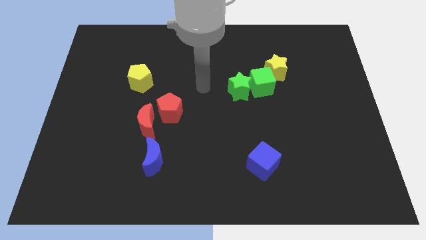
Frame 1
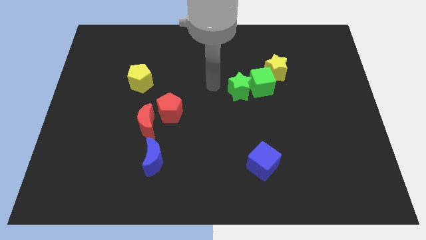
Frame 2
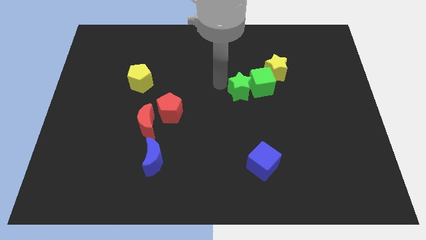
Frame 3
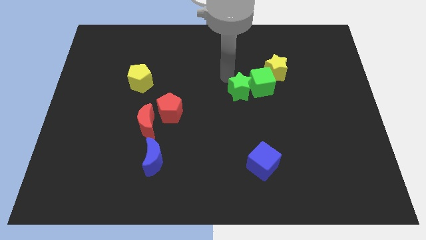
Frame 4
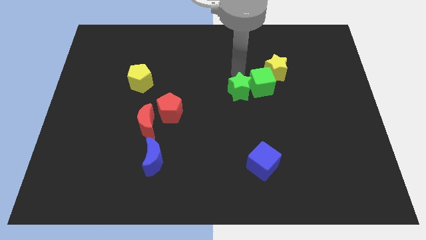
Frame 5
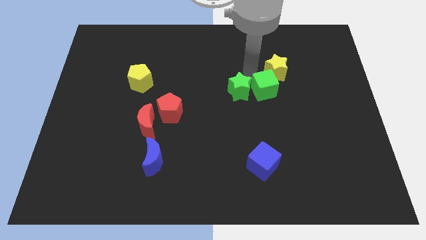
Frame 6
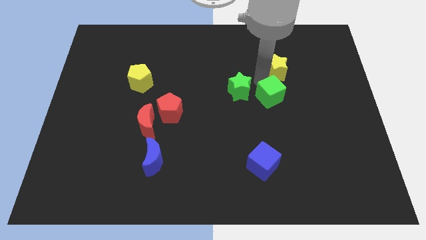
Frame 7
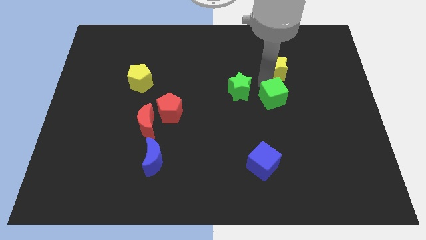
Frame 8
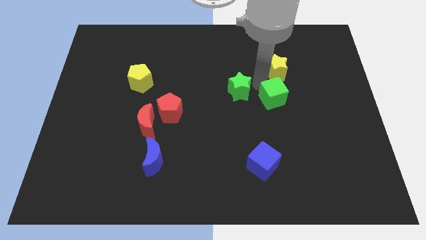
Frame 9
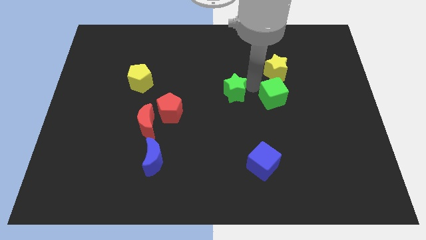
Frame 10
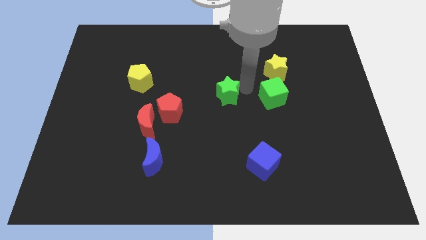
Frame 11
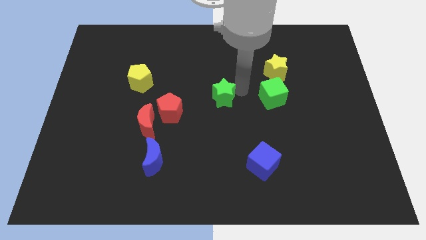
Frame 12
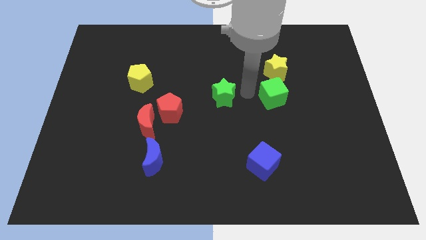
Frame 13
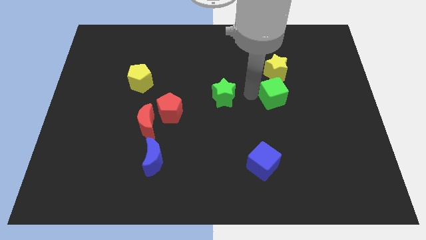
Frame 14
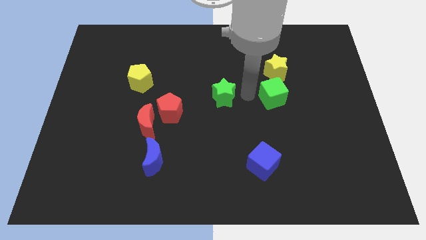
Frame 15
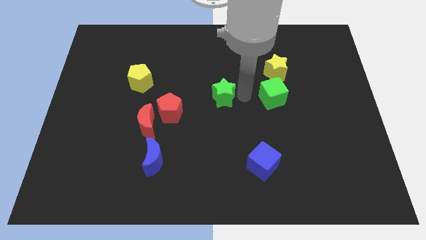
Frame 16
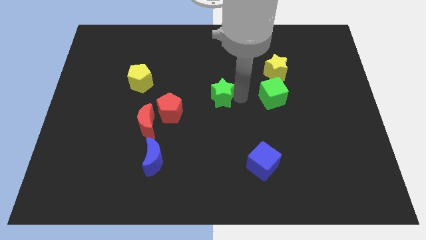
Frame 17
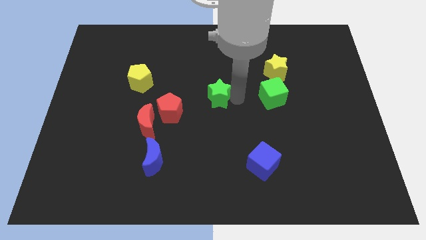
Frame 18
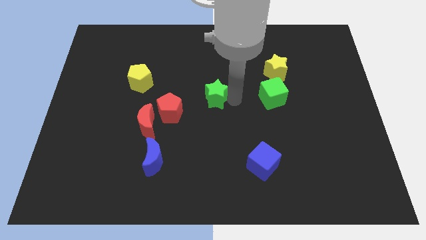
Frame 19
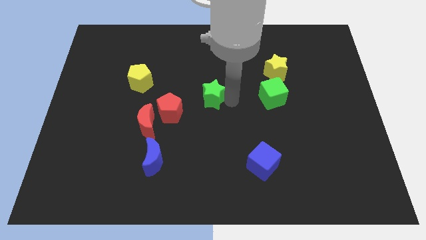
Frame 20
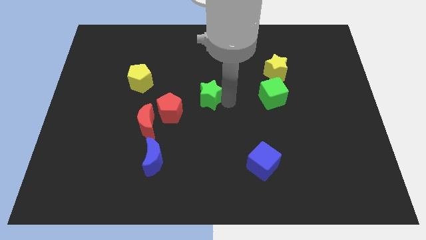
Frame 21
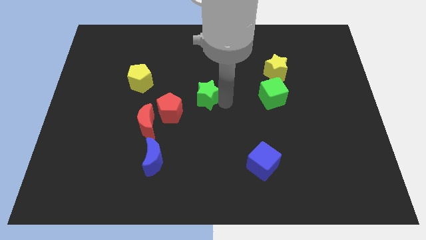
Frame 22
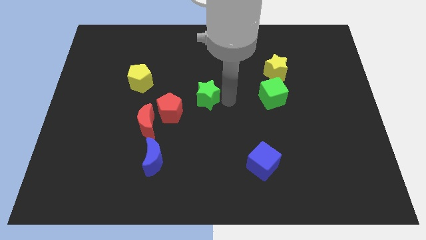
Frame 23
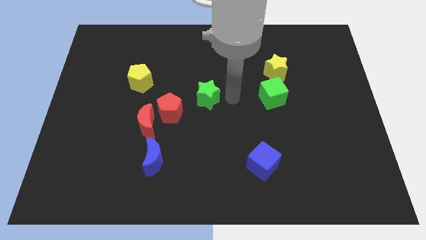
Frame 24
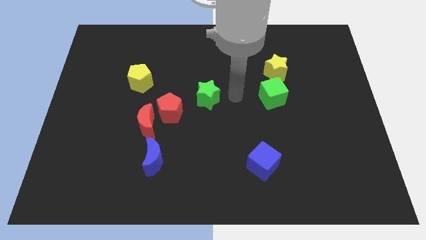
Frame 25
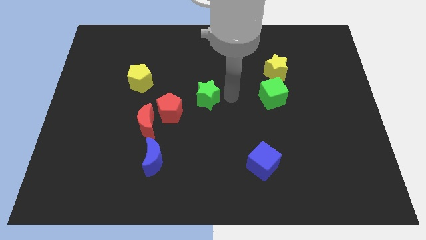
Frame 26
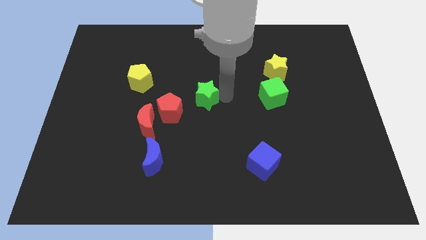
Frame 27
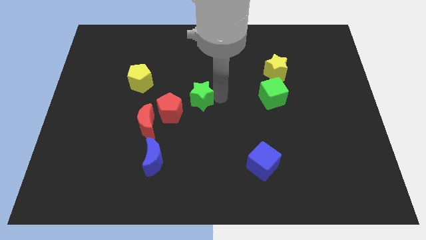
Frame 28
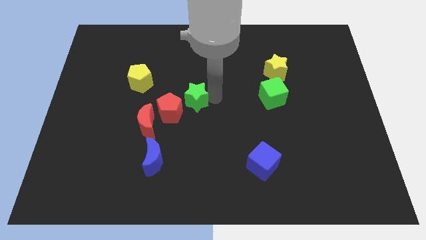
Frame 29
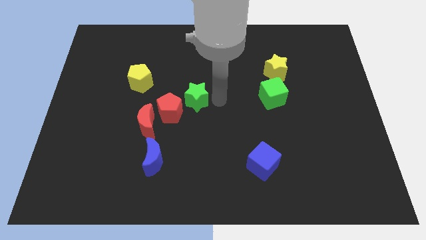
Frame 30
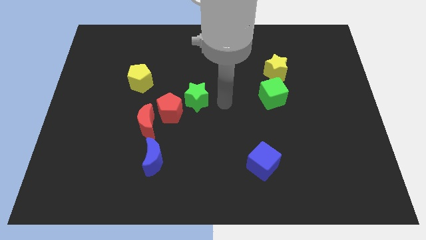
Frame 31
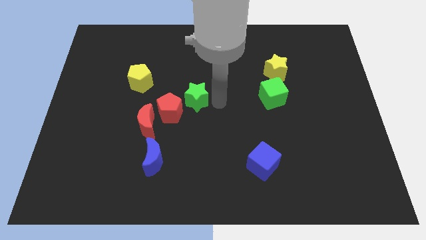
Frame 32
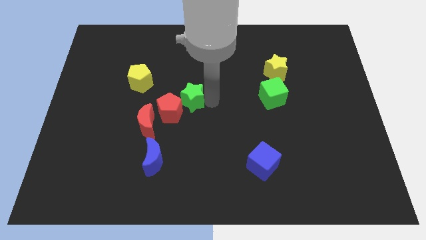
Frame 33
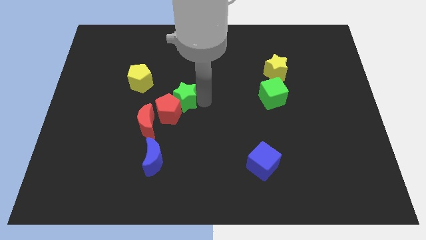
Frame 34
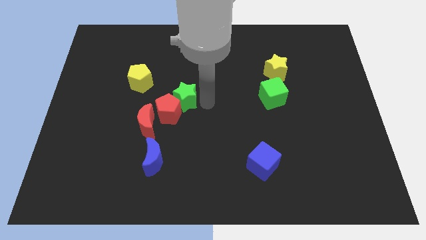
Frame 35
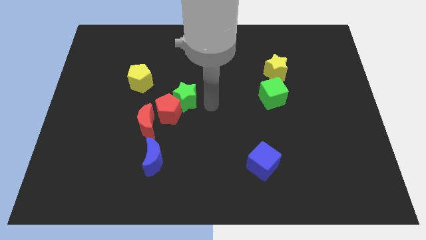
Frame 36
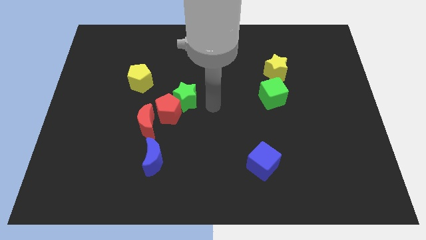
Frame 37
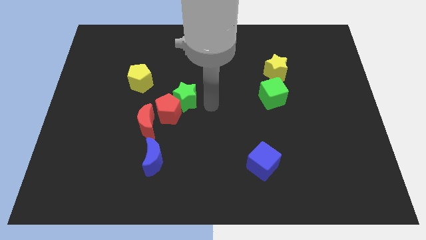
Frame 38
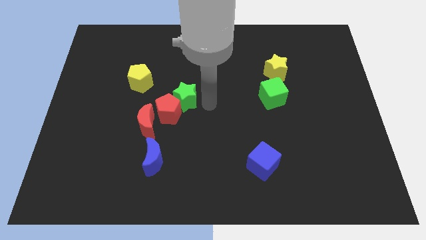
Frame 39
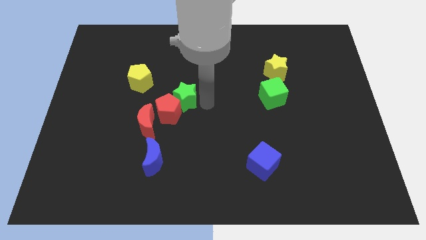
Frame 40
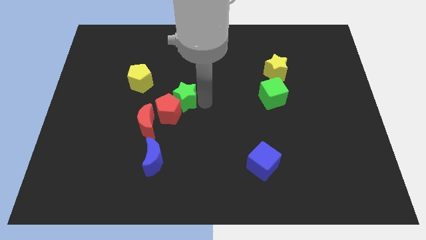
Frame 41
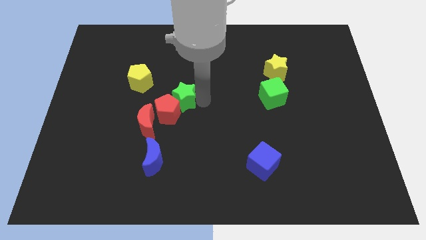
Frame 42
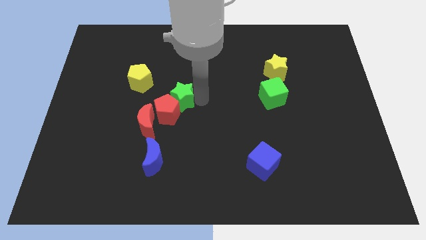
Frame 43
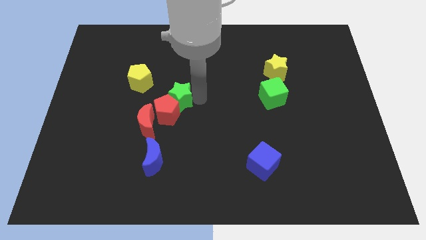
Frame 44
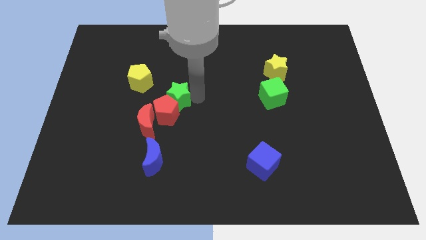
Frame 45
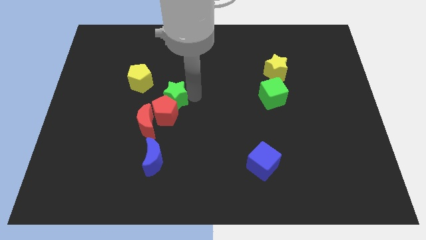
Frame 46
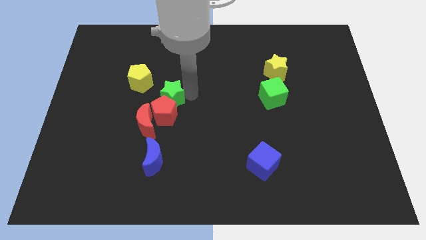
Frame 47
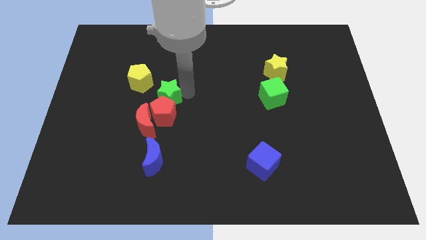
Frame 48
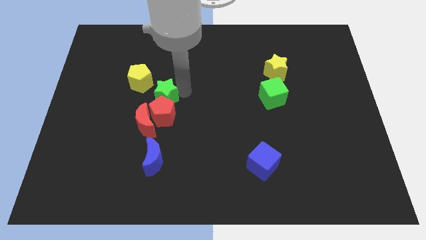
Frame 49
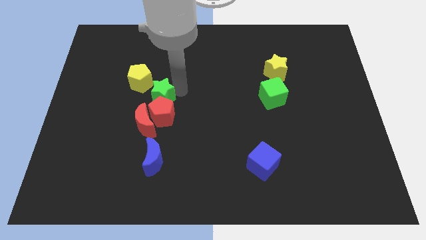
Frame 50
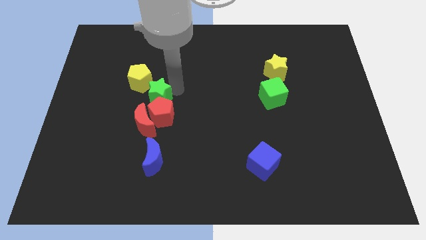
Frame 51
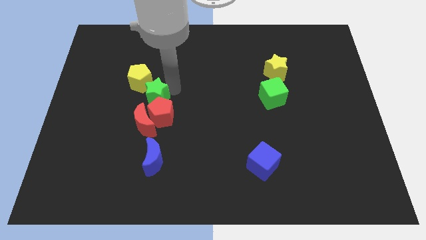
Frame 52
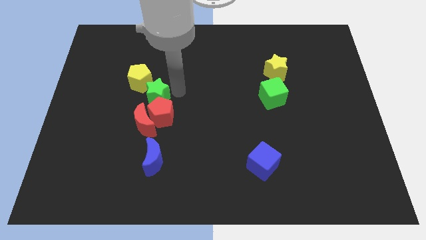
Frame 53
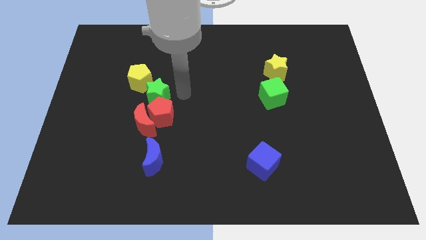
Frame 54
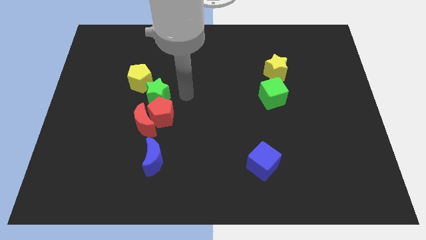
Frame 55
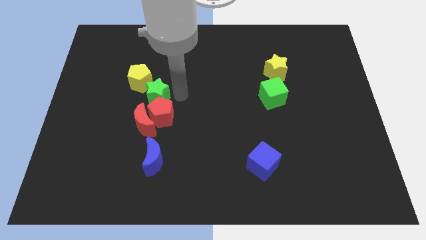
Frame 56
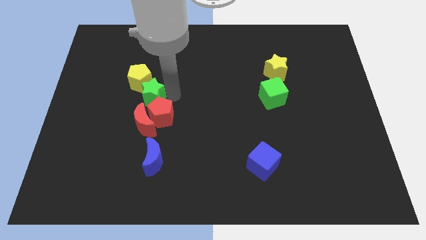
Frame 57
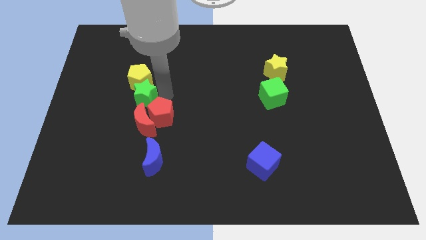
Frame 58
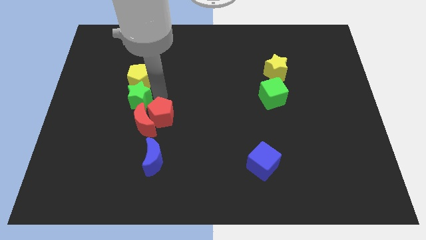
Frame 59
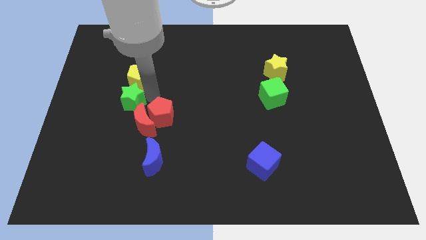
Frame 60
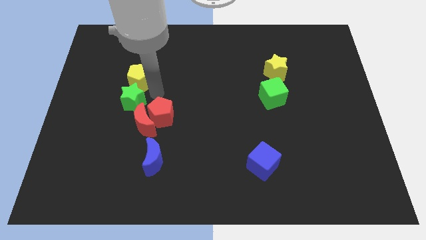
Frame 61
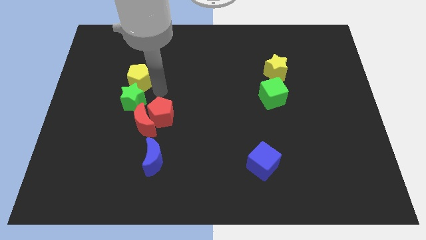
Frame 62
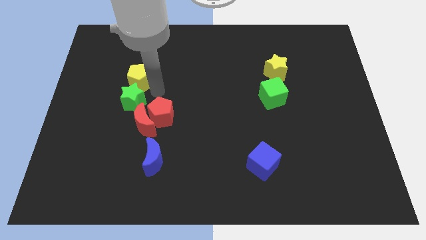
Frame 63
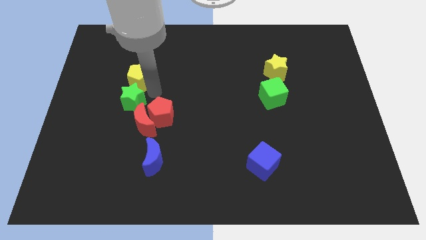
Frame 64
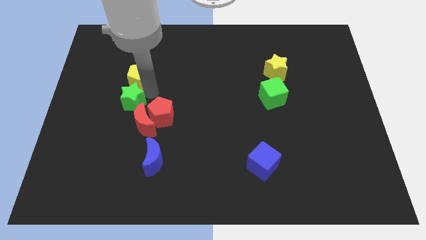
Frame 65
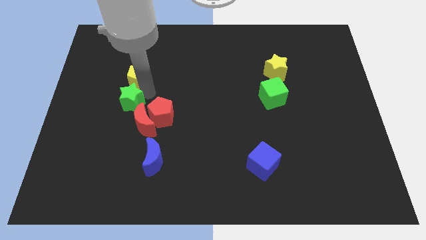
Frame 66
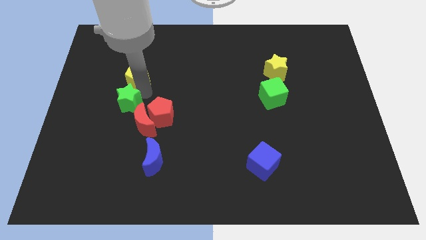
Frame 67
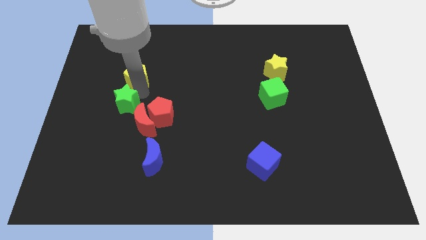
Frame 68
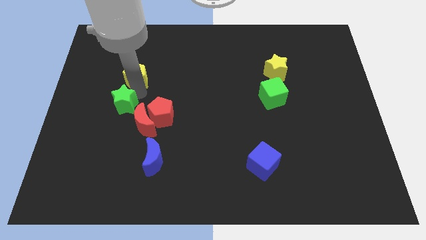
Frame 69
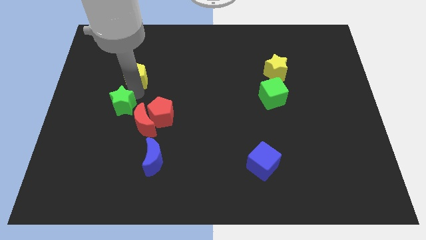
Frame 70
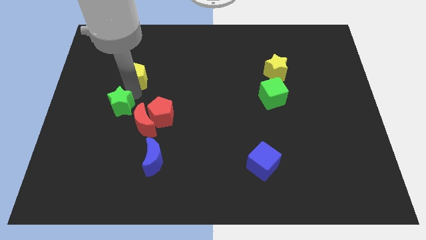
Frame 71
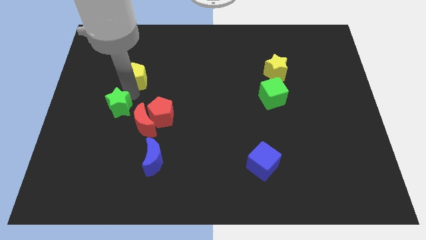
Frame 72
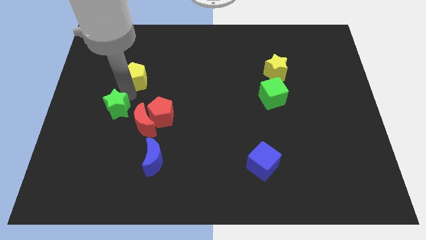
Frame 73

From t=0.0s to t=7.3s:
move the green star to the left side of the red moon

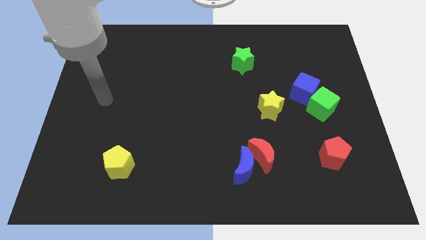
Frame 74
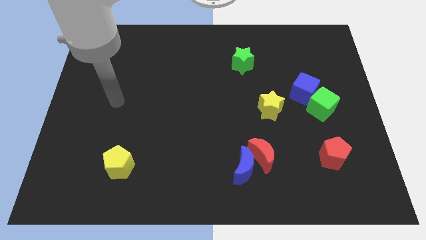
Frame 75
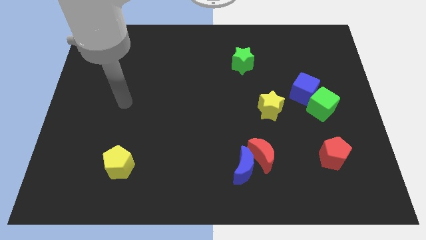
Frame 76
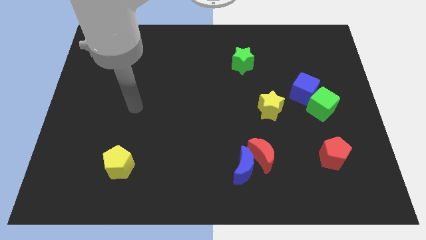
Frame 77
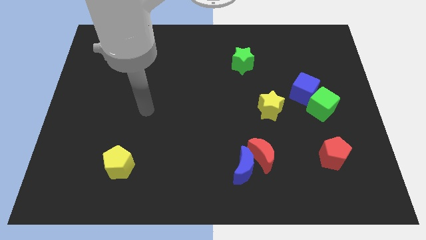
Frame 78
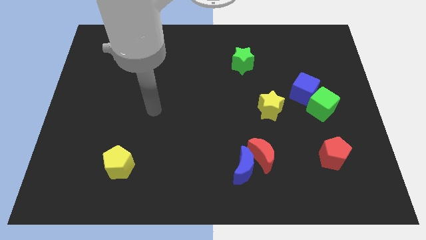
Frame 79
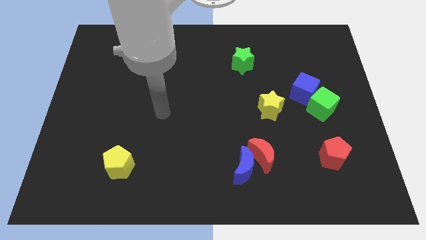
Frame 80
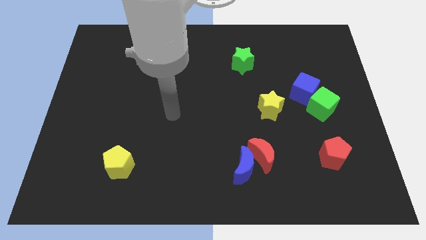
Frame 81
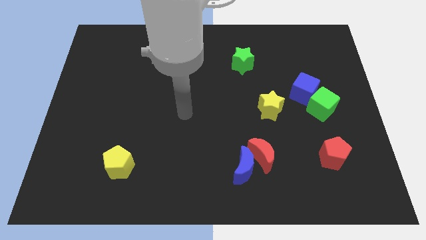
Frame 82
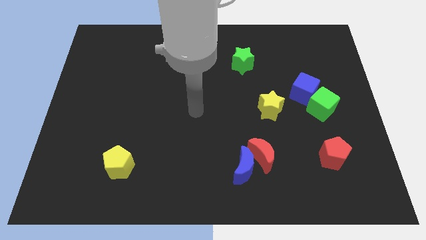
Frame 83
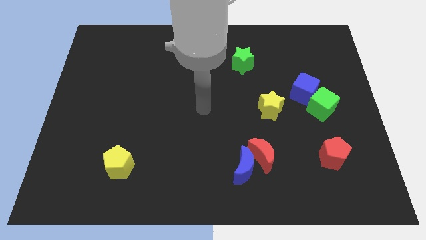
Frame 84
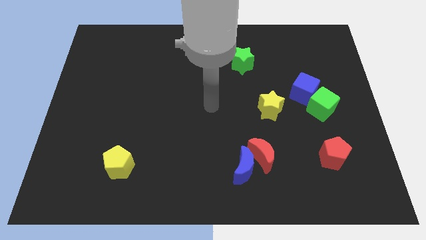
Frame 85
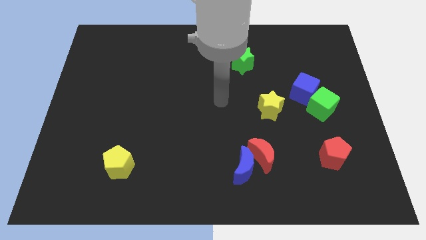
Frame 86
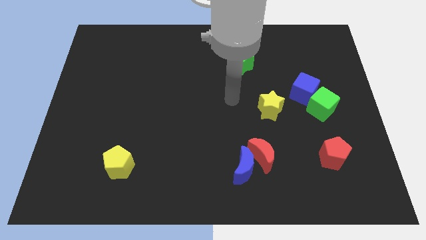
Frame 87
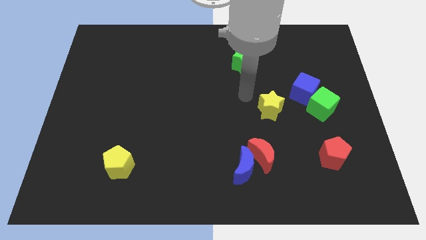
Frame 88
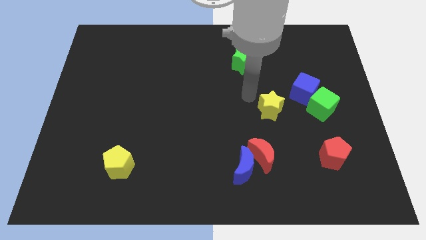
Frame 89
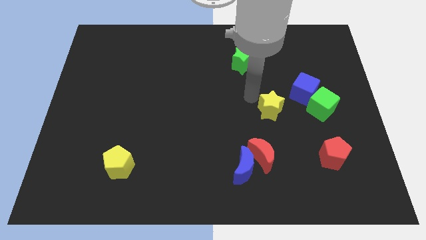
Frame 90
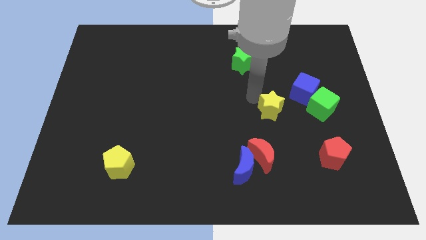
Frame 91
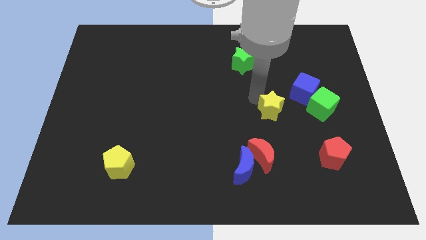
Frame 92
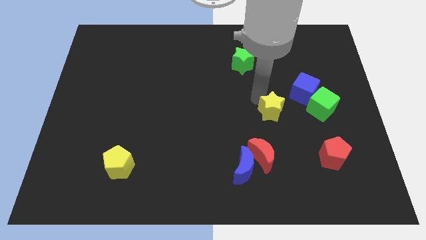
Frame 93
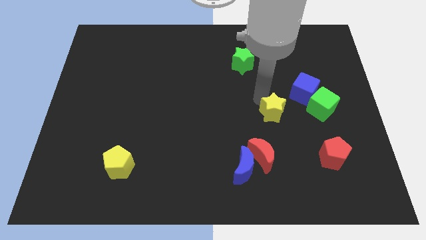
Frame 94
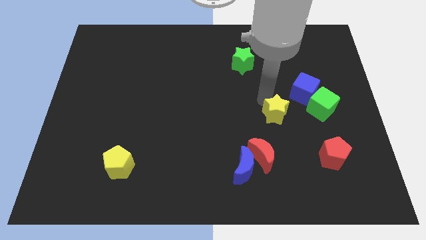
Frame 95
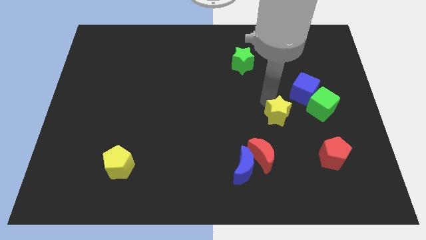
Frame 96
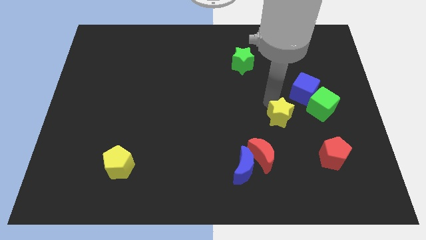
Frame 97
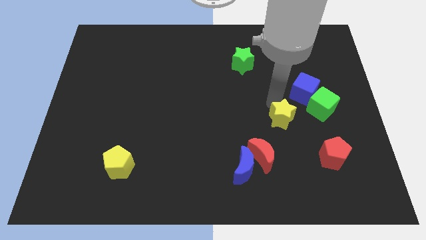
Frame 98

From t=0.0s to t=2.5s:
move the yellow star diagonally down and to the left of the green cube
